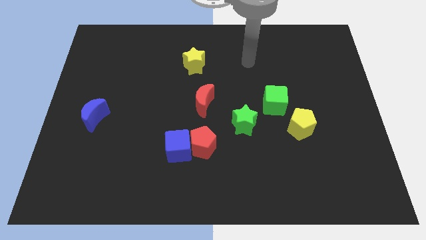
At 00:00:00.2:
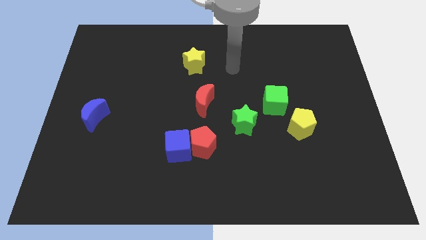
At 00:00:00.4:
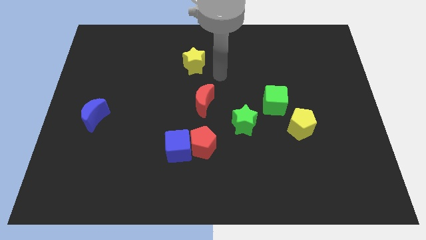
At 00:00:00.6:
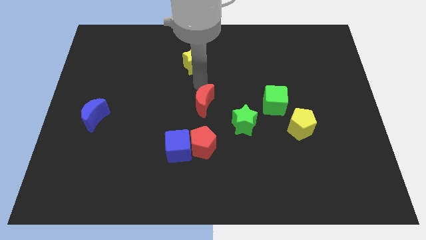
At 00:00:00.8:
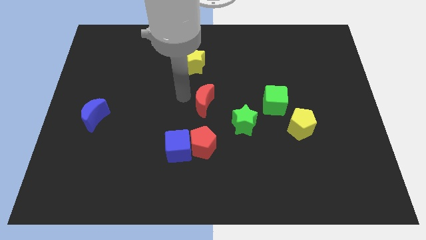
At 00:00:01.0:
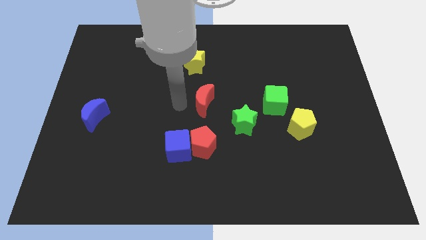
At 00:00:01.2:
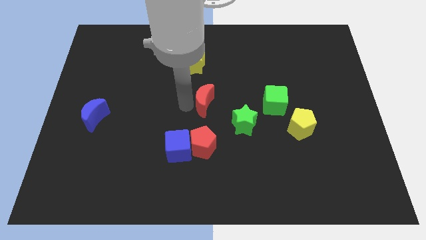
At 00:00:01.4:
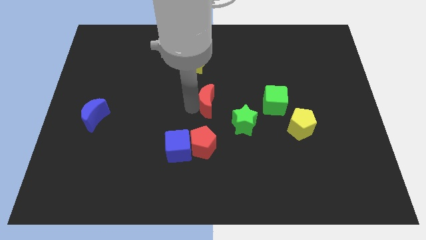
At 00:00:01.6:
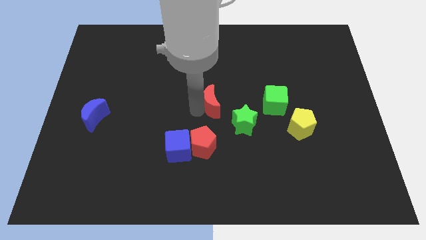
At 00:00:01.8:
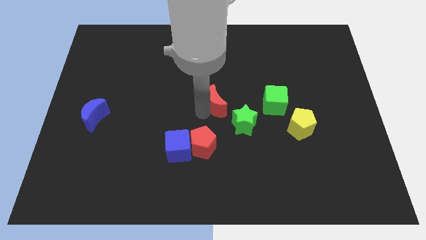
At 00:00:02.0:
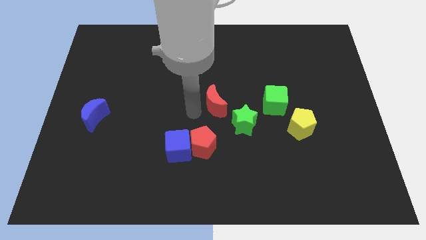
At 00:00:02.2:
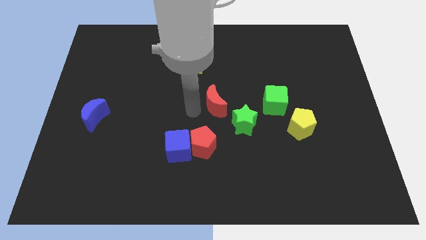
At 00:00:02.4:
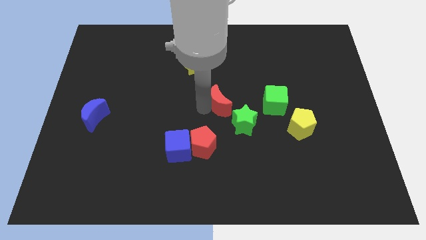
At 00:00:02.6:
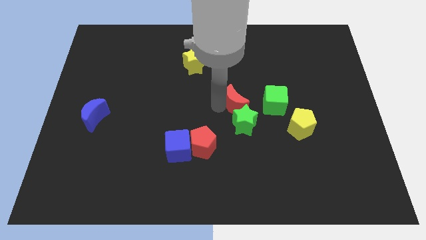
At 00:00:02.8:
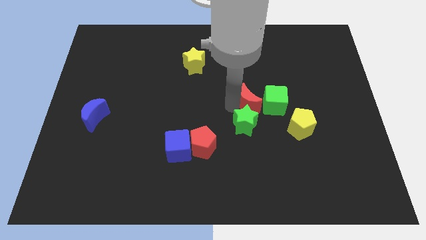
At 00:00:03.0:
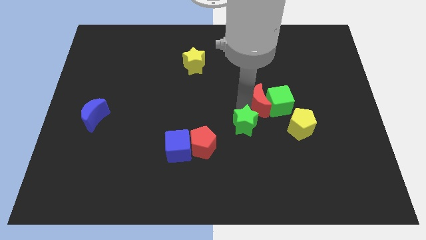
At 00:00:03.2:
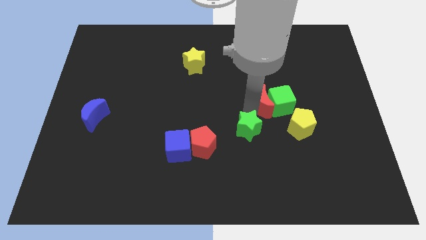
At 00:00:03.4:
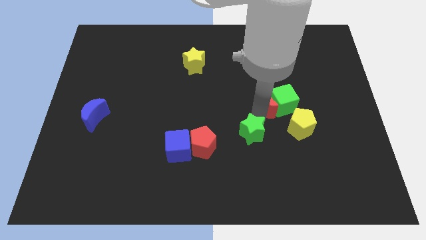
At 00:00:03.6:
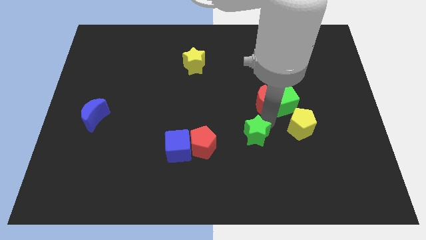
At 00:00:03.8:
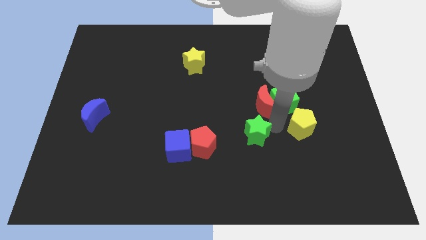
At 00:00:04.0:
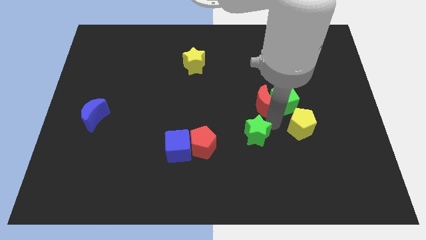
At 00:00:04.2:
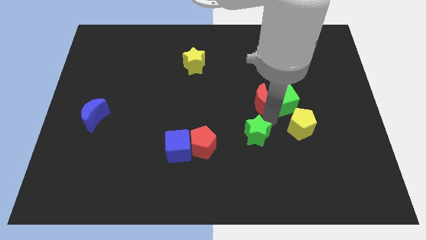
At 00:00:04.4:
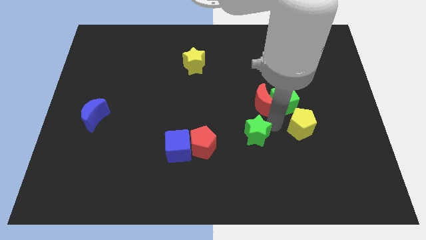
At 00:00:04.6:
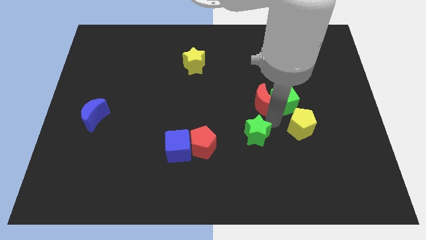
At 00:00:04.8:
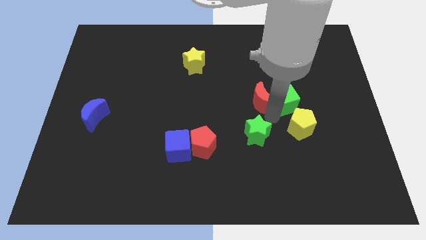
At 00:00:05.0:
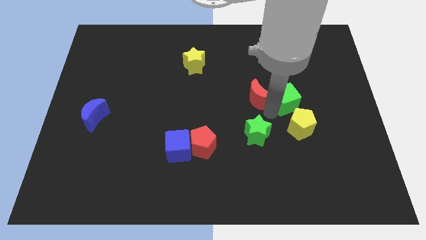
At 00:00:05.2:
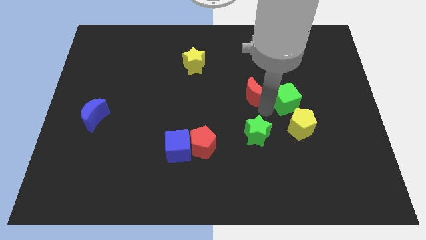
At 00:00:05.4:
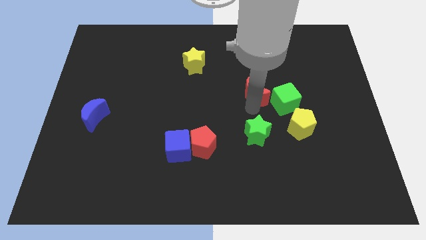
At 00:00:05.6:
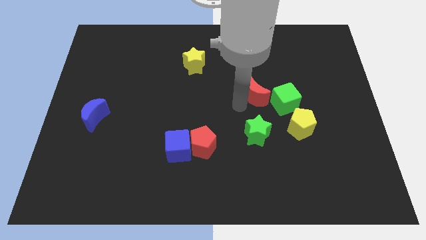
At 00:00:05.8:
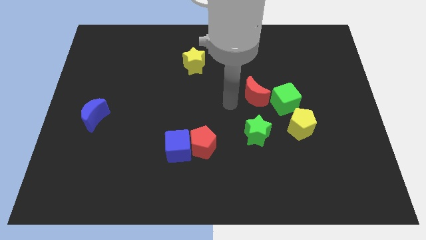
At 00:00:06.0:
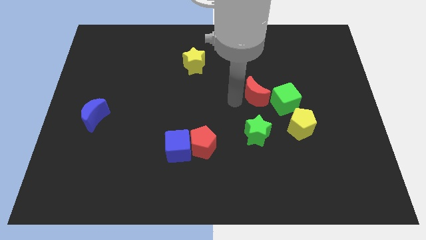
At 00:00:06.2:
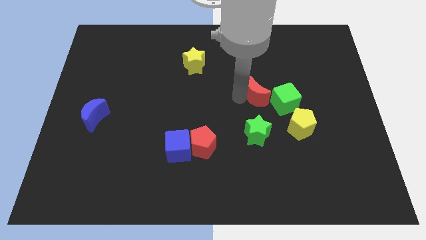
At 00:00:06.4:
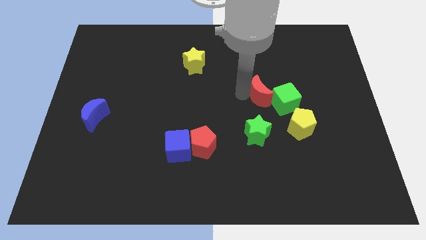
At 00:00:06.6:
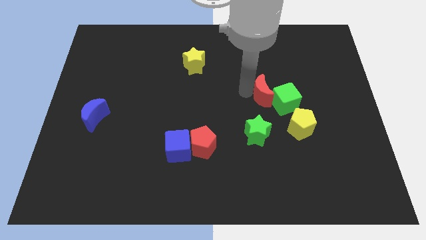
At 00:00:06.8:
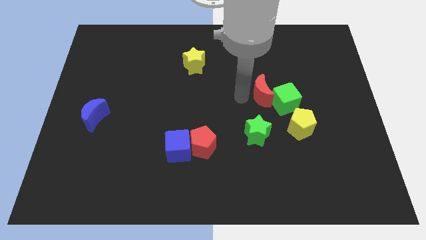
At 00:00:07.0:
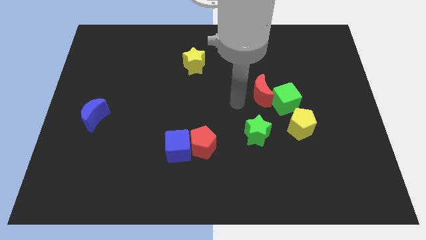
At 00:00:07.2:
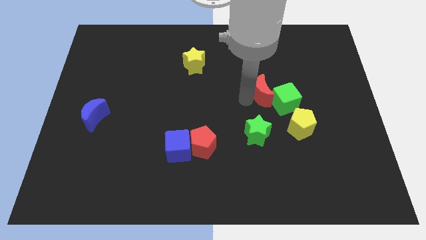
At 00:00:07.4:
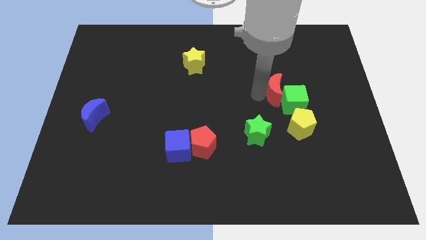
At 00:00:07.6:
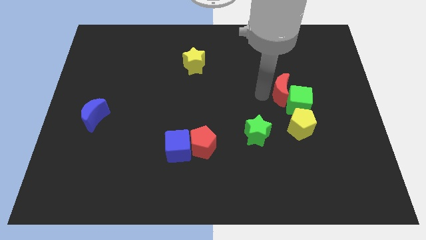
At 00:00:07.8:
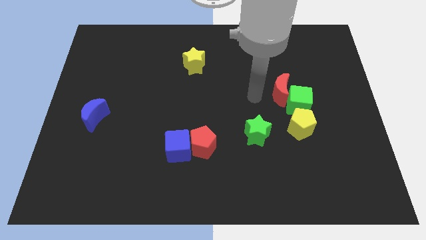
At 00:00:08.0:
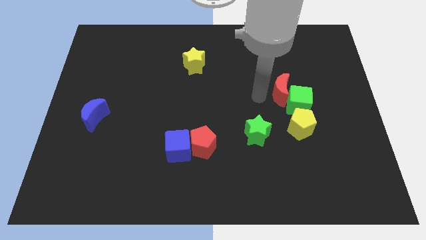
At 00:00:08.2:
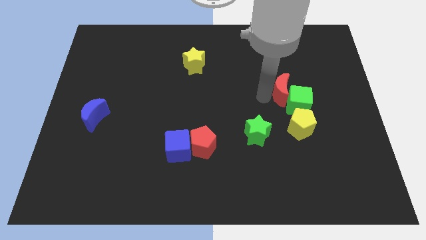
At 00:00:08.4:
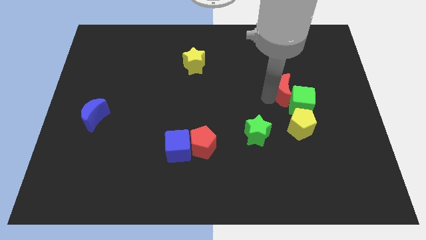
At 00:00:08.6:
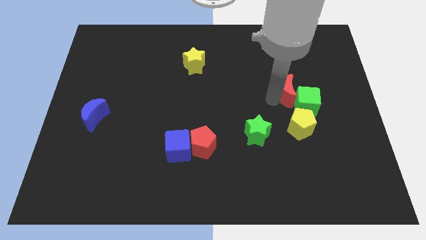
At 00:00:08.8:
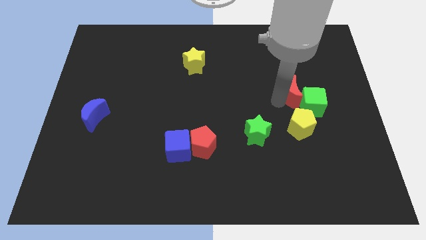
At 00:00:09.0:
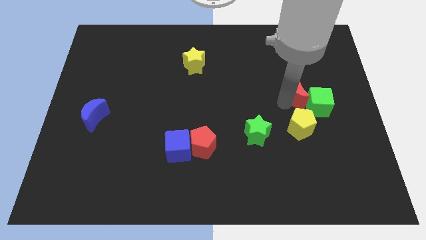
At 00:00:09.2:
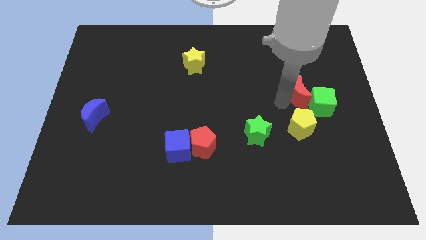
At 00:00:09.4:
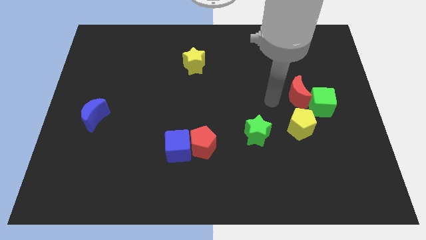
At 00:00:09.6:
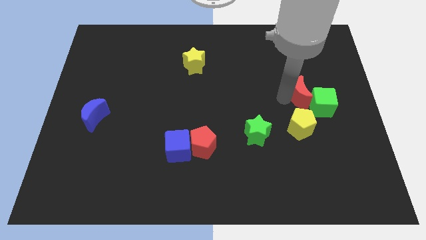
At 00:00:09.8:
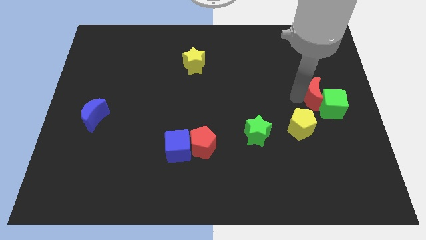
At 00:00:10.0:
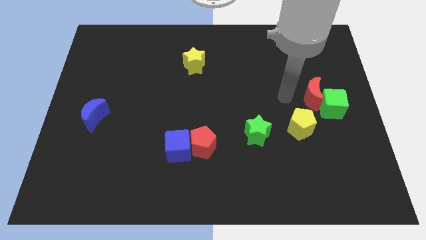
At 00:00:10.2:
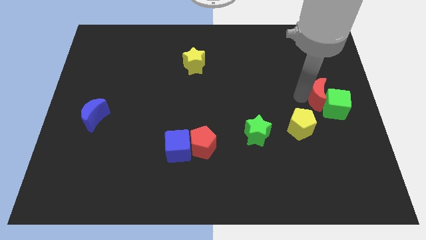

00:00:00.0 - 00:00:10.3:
slide the red moon to the right side of the board

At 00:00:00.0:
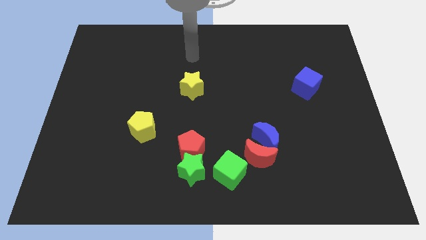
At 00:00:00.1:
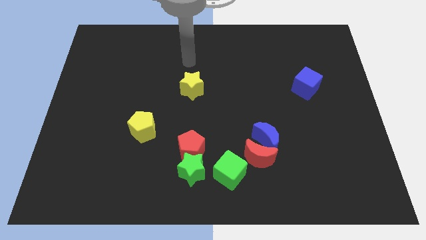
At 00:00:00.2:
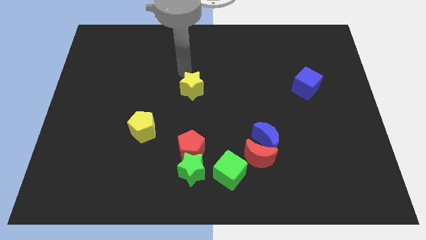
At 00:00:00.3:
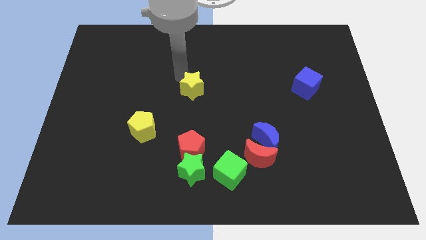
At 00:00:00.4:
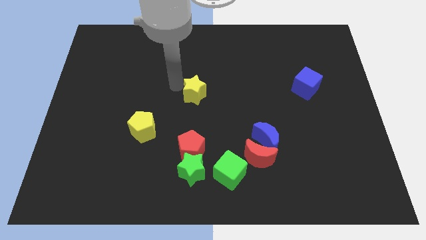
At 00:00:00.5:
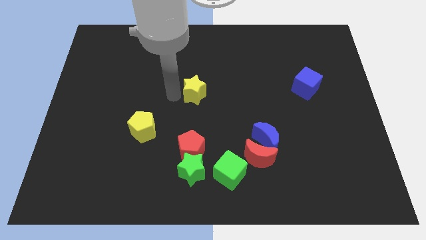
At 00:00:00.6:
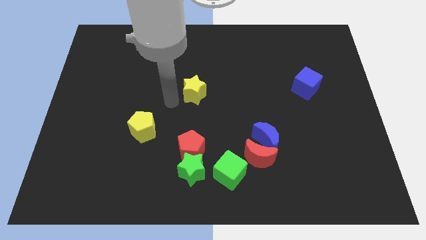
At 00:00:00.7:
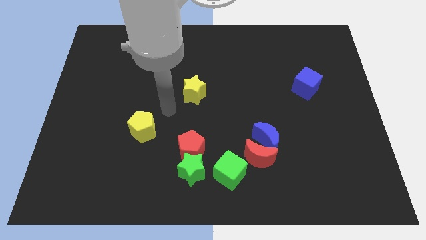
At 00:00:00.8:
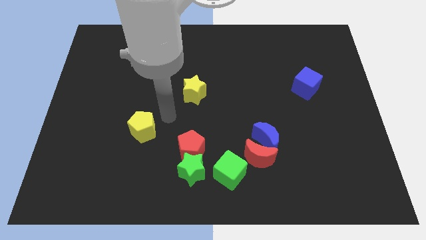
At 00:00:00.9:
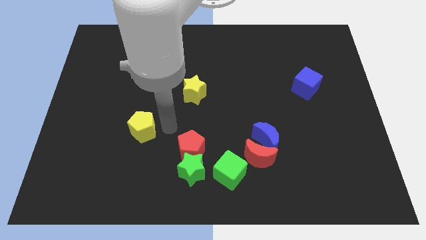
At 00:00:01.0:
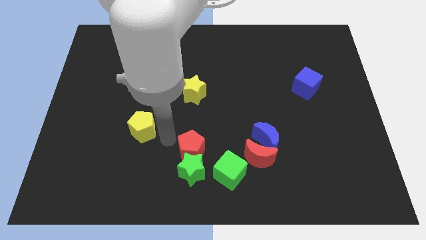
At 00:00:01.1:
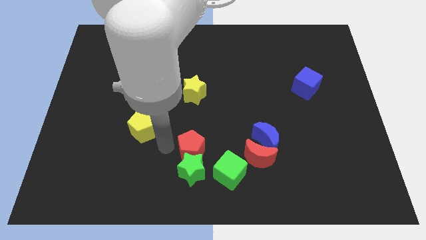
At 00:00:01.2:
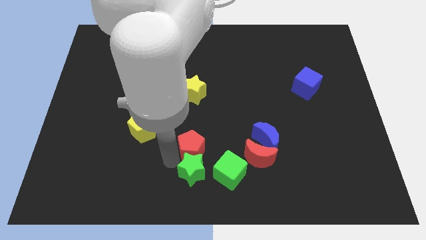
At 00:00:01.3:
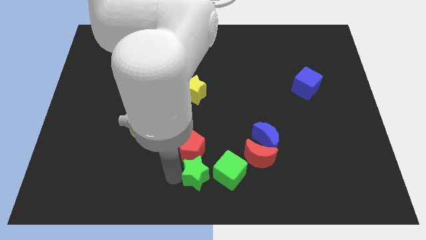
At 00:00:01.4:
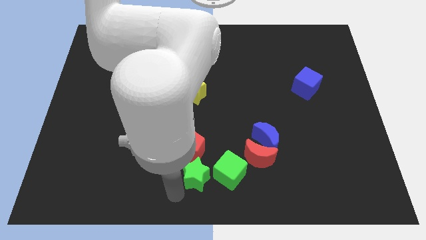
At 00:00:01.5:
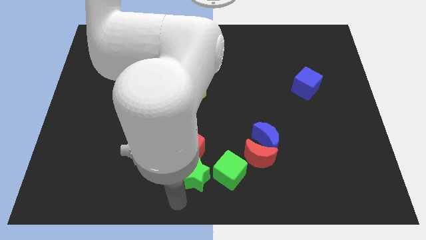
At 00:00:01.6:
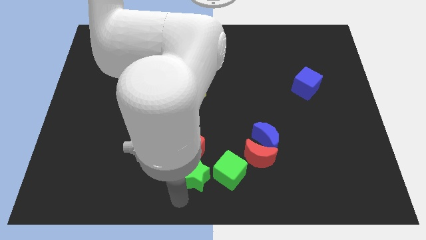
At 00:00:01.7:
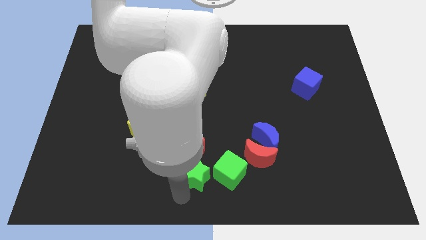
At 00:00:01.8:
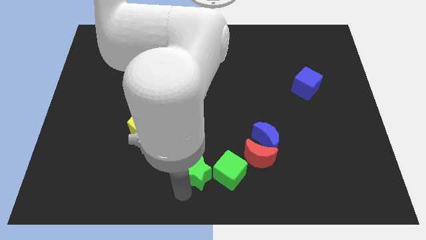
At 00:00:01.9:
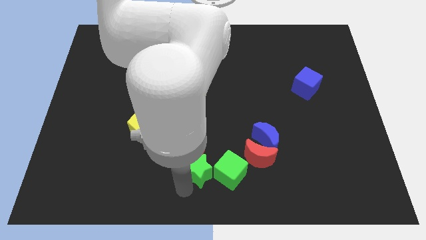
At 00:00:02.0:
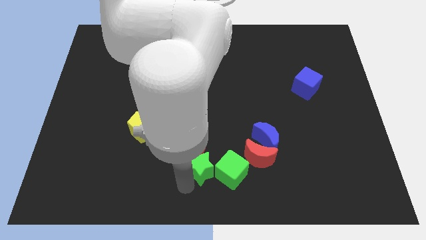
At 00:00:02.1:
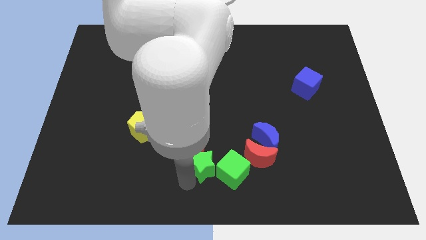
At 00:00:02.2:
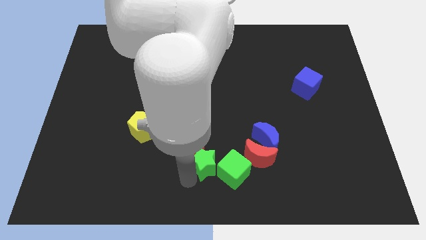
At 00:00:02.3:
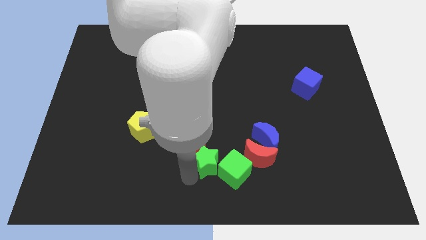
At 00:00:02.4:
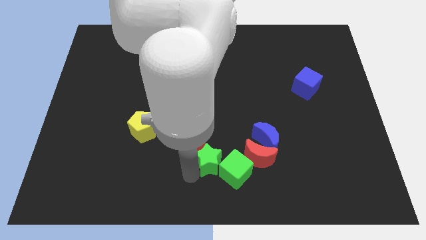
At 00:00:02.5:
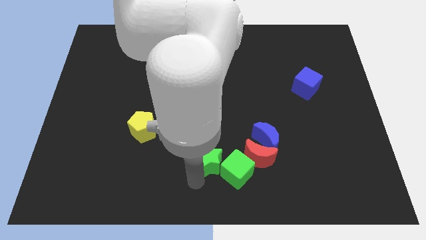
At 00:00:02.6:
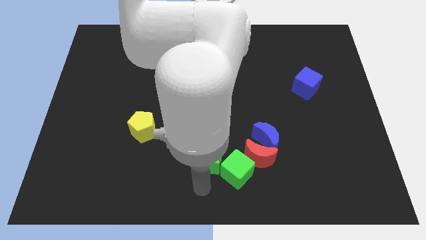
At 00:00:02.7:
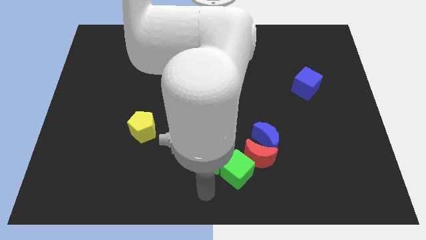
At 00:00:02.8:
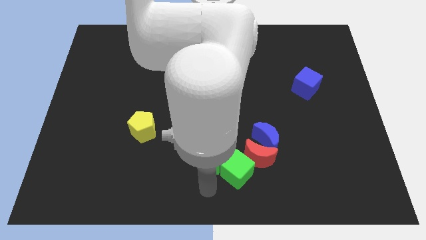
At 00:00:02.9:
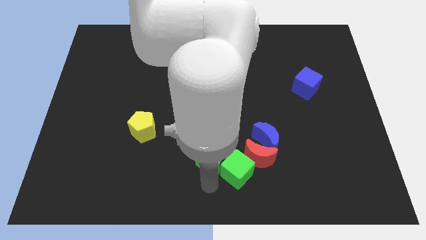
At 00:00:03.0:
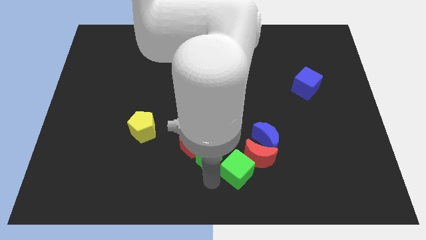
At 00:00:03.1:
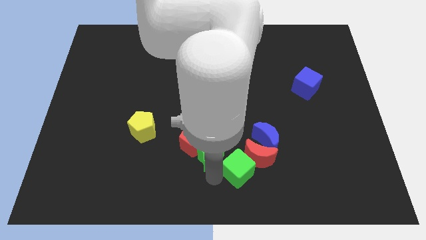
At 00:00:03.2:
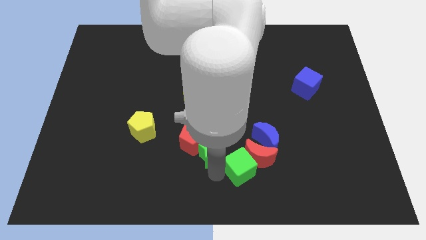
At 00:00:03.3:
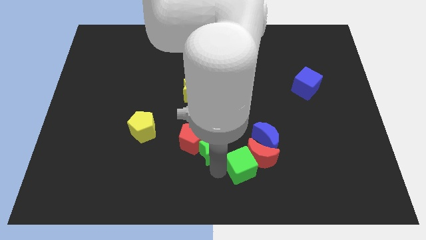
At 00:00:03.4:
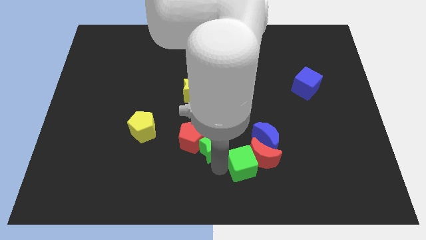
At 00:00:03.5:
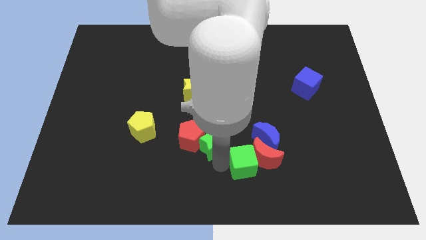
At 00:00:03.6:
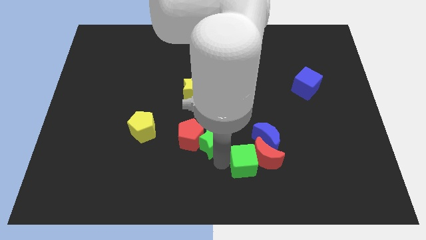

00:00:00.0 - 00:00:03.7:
push the green star to the center
